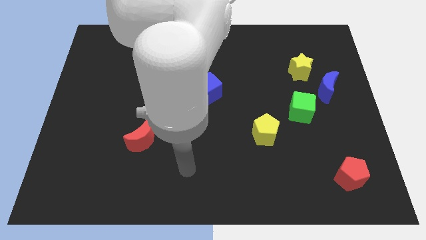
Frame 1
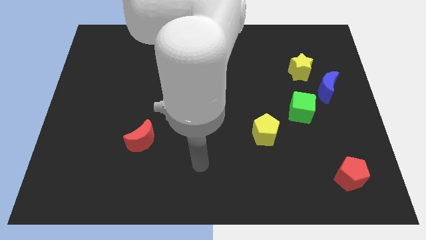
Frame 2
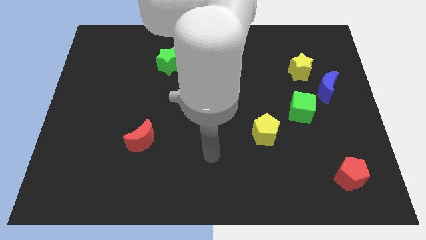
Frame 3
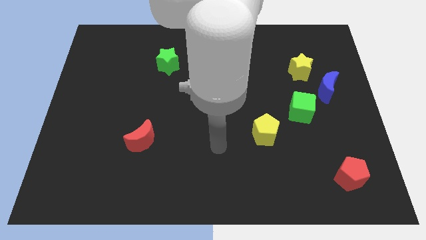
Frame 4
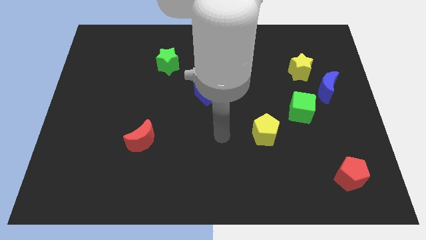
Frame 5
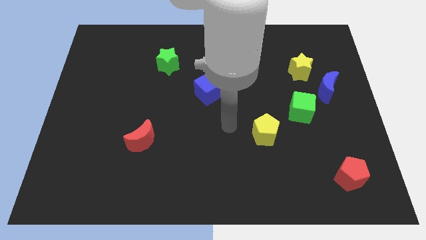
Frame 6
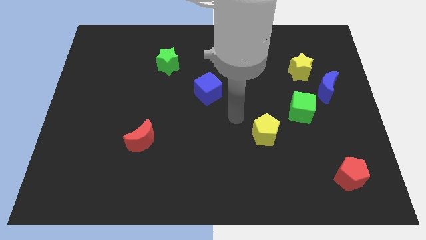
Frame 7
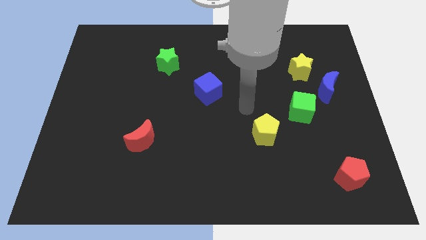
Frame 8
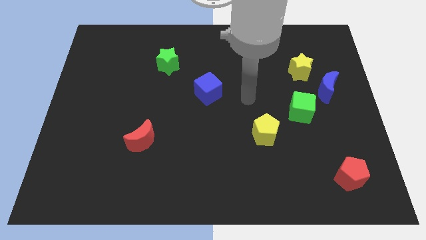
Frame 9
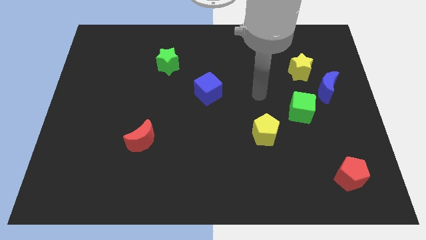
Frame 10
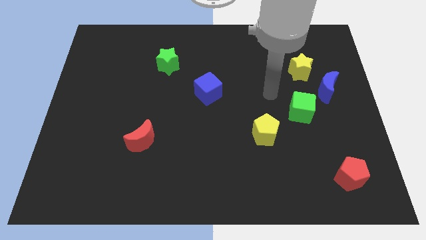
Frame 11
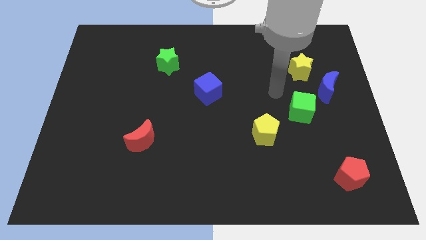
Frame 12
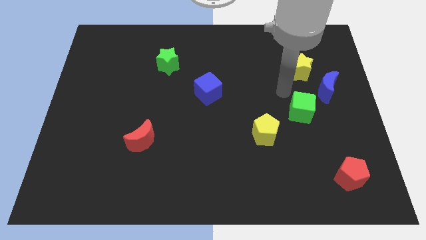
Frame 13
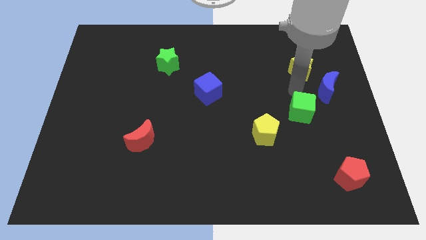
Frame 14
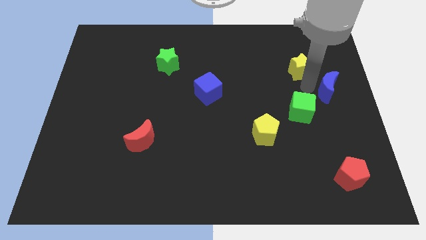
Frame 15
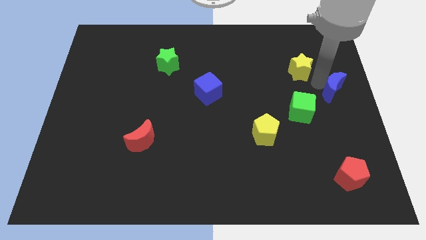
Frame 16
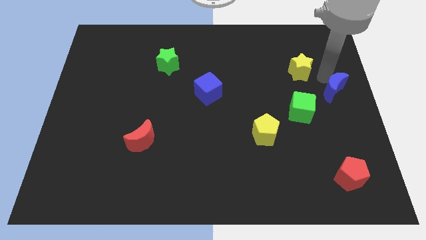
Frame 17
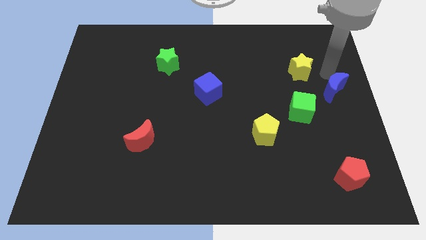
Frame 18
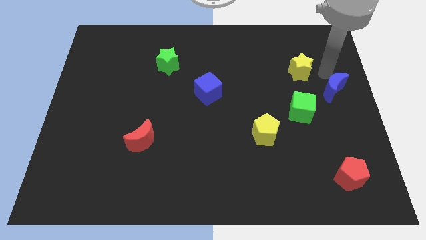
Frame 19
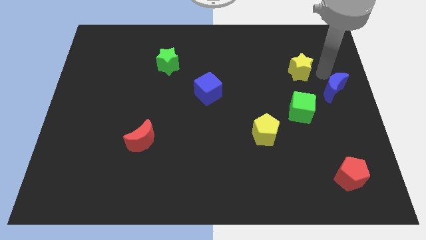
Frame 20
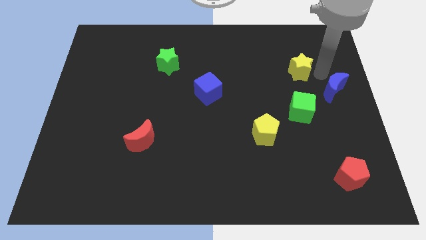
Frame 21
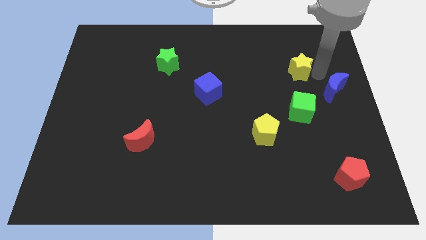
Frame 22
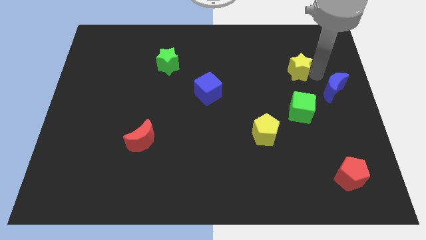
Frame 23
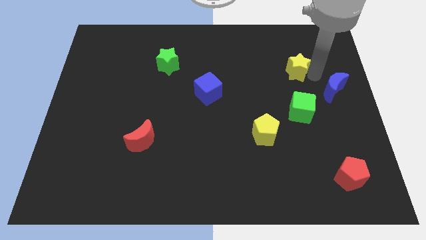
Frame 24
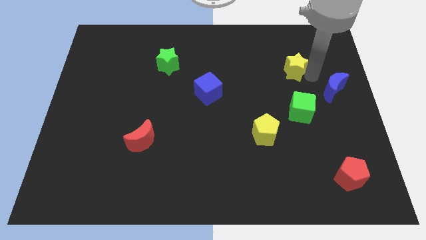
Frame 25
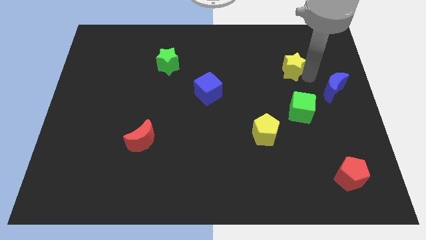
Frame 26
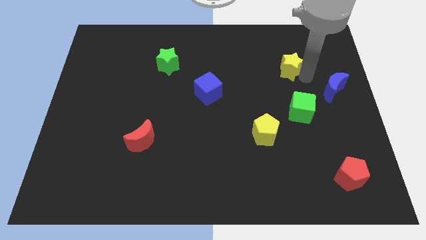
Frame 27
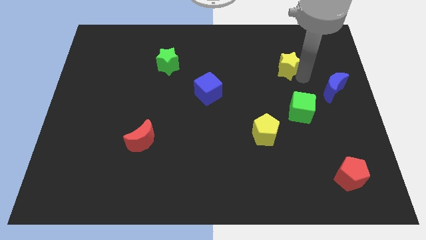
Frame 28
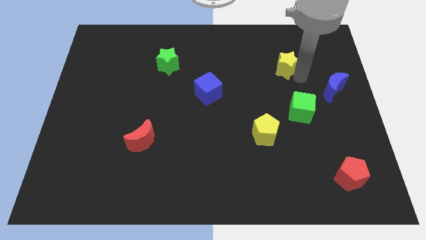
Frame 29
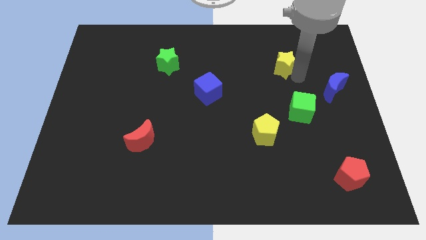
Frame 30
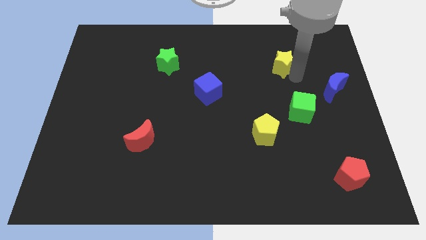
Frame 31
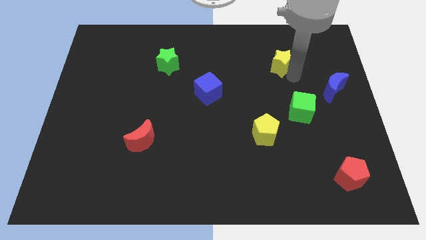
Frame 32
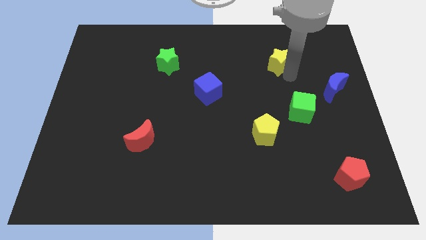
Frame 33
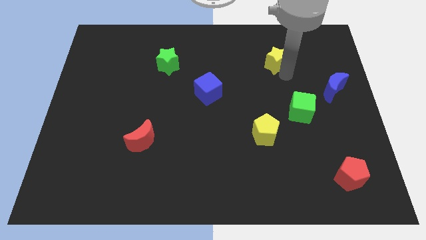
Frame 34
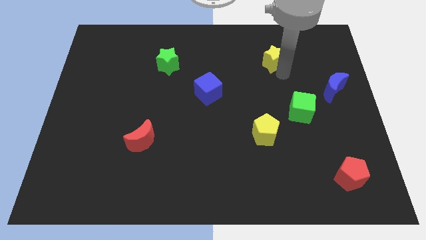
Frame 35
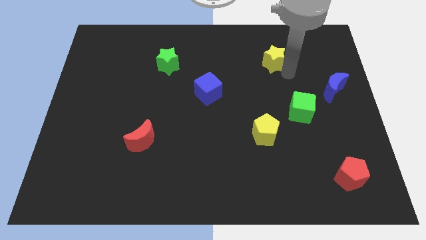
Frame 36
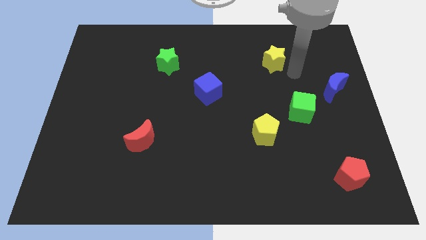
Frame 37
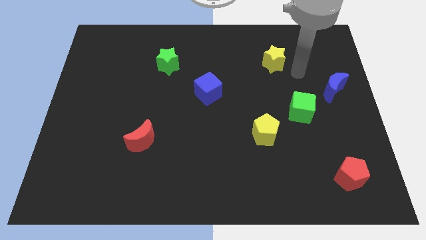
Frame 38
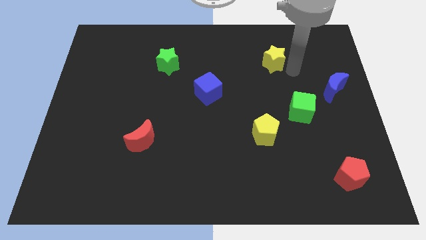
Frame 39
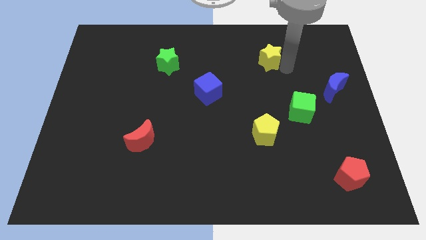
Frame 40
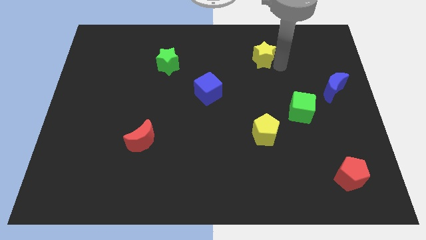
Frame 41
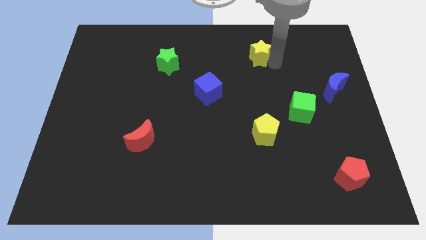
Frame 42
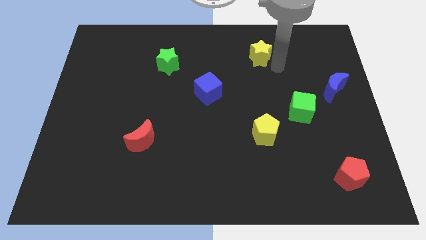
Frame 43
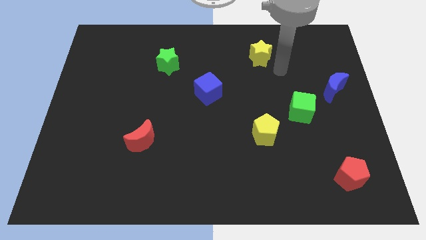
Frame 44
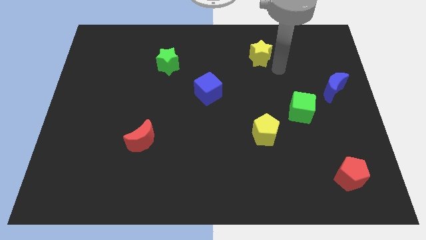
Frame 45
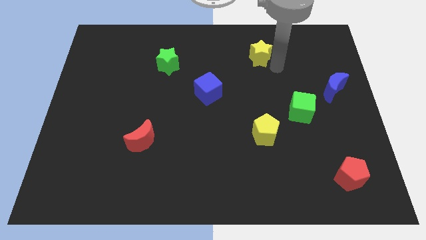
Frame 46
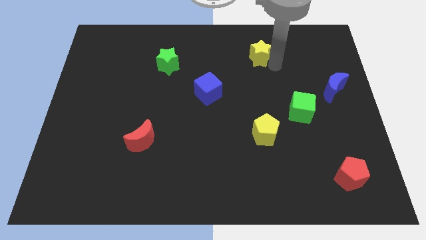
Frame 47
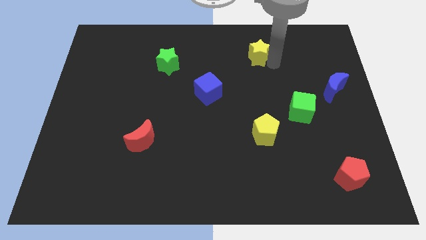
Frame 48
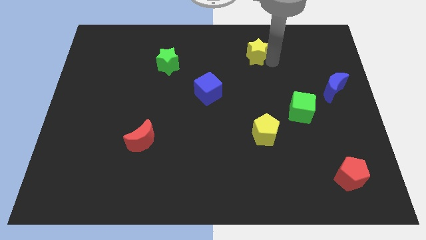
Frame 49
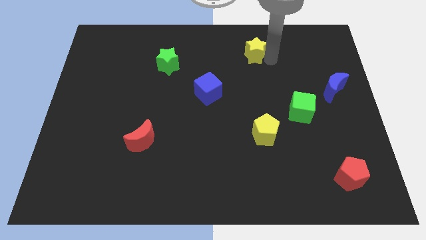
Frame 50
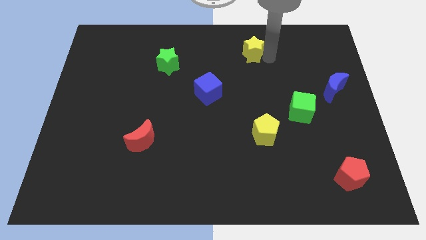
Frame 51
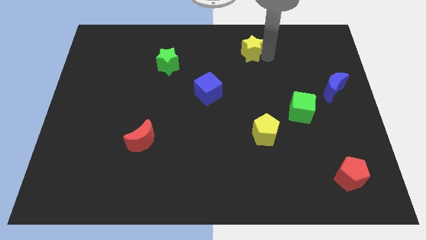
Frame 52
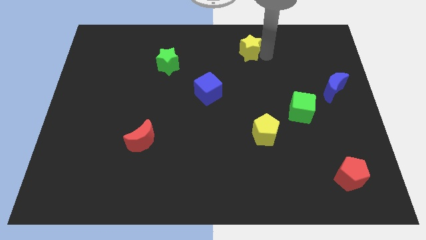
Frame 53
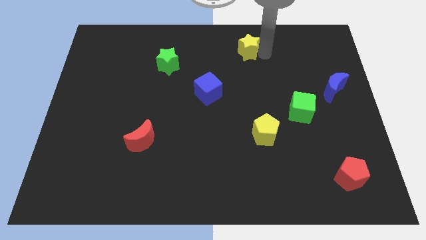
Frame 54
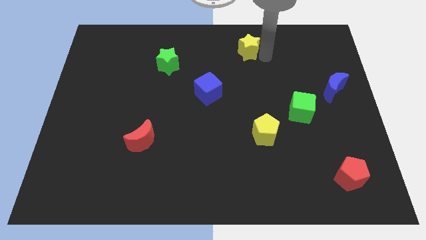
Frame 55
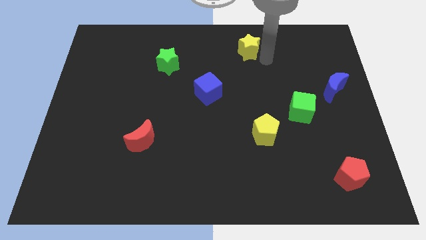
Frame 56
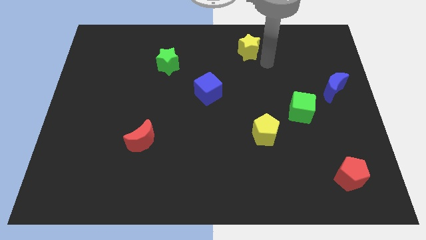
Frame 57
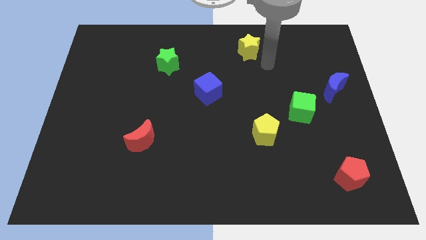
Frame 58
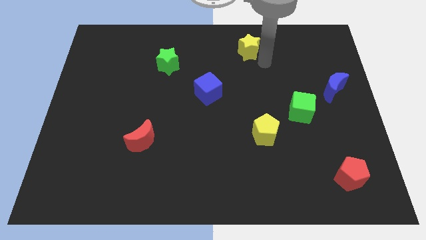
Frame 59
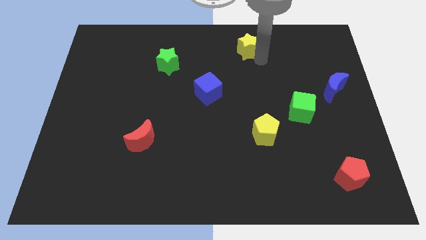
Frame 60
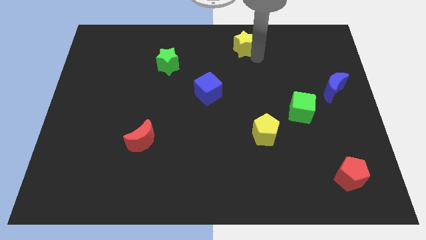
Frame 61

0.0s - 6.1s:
put the yellow star to the top side

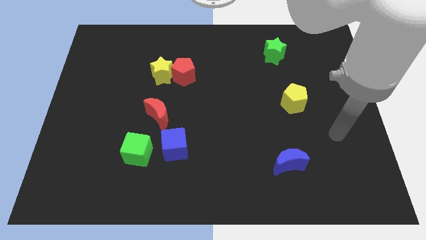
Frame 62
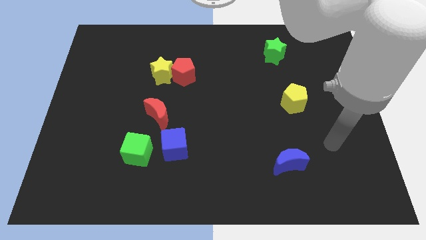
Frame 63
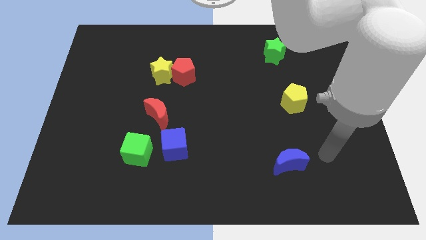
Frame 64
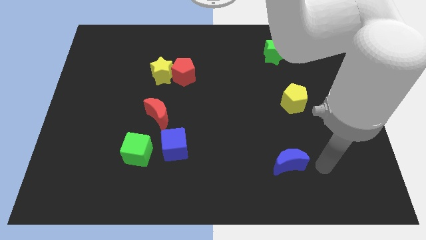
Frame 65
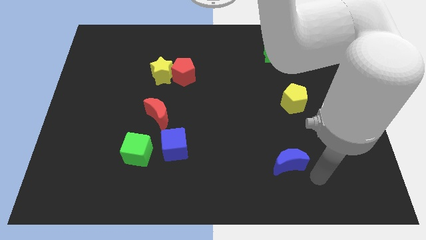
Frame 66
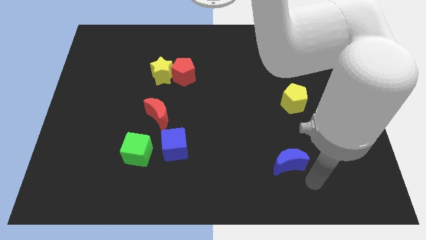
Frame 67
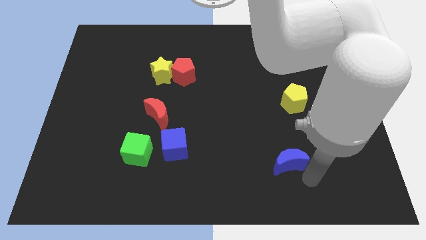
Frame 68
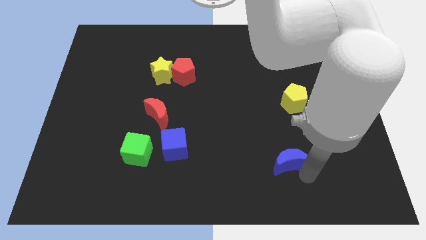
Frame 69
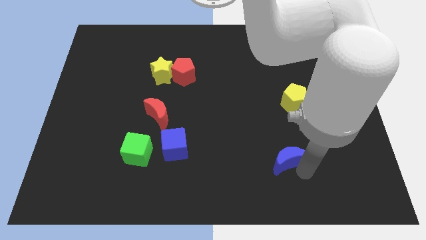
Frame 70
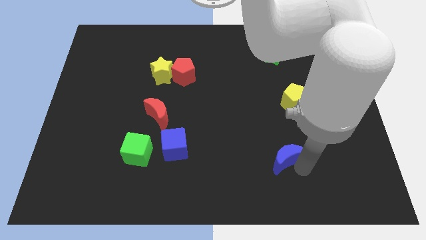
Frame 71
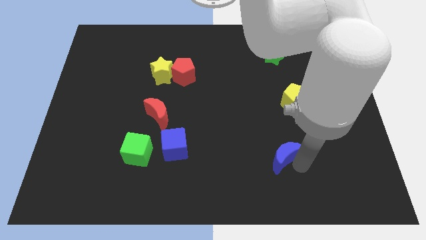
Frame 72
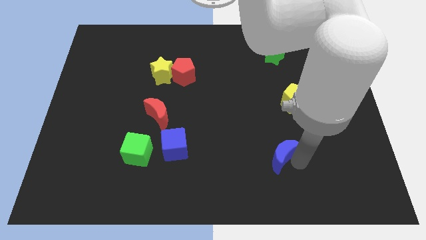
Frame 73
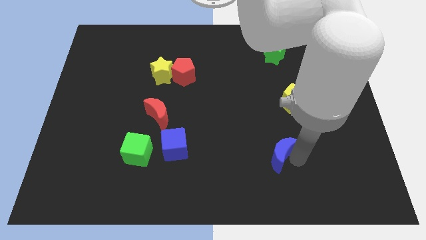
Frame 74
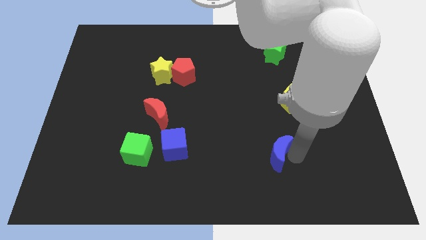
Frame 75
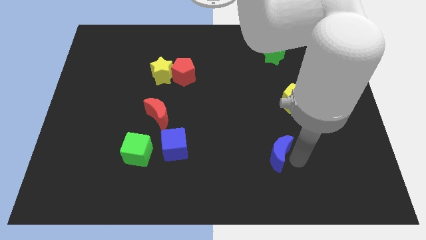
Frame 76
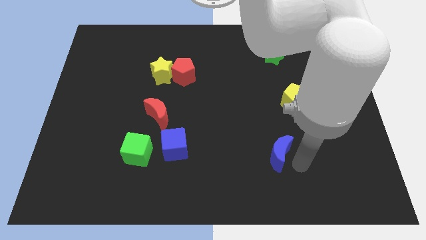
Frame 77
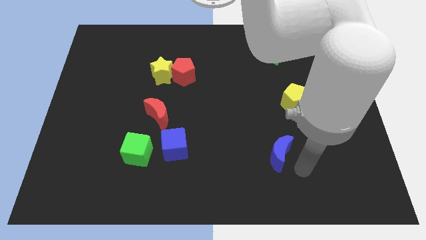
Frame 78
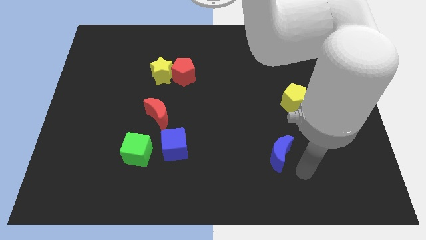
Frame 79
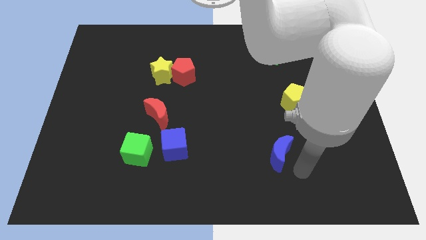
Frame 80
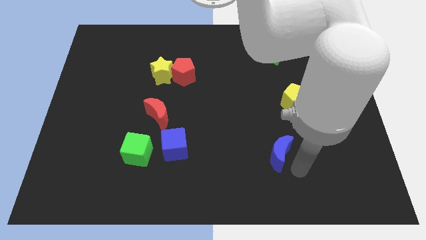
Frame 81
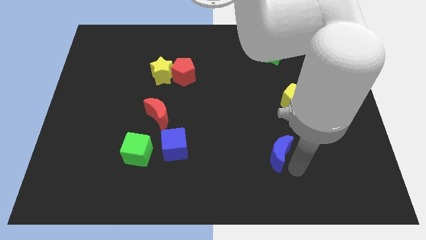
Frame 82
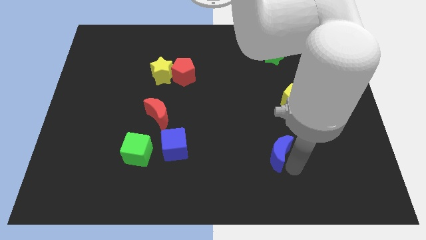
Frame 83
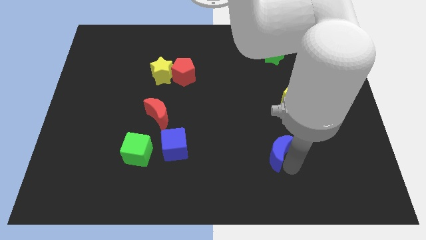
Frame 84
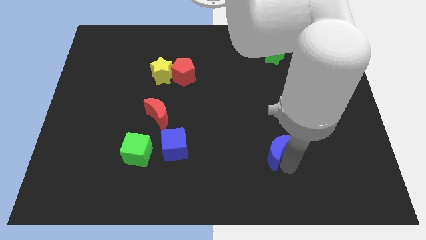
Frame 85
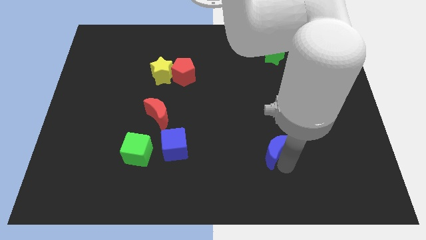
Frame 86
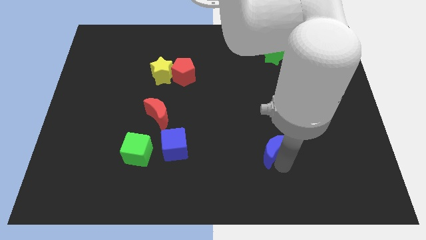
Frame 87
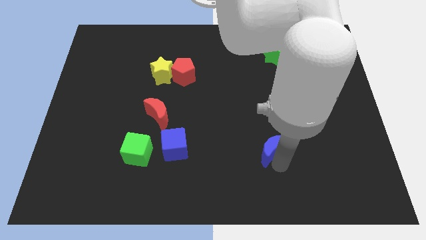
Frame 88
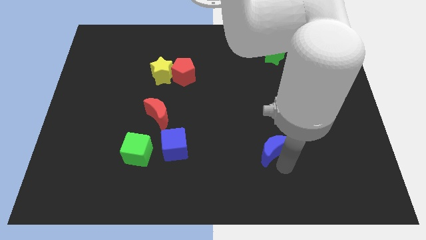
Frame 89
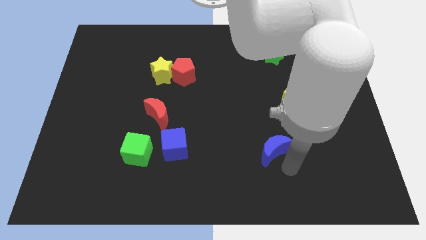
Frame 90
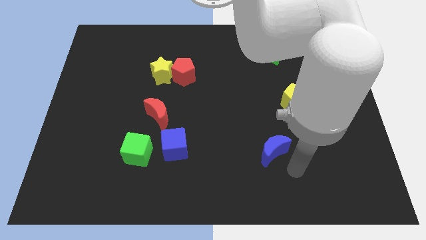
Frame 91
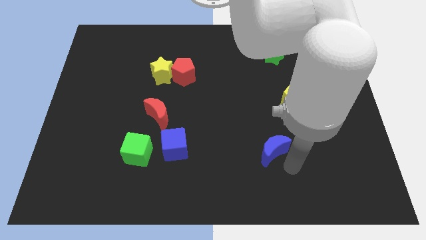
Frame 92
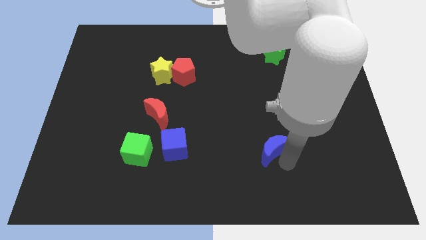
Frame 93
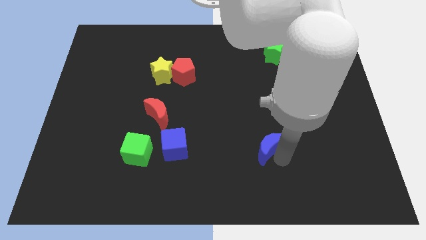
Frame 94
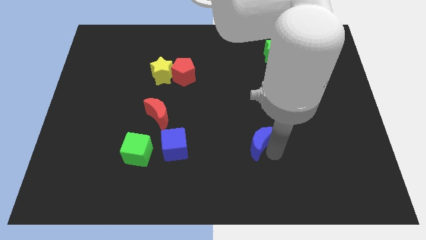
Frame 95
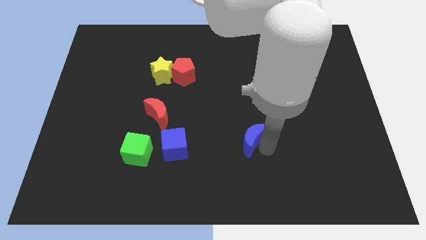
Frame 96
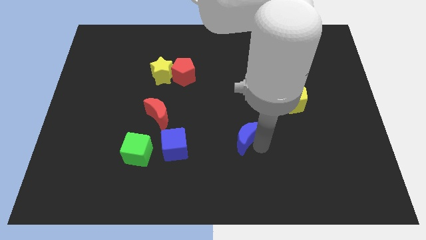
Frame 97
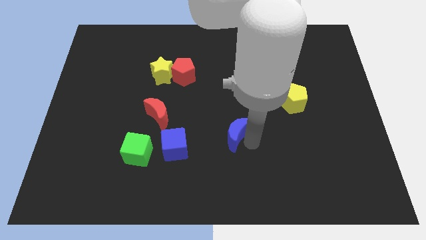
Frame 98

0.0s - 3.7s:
move the blue moon to the middle of the board
